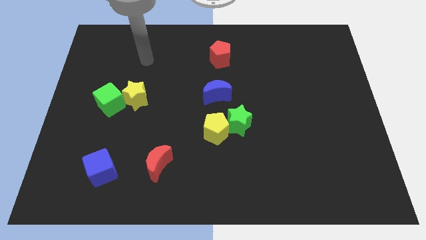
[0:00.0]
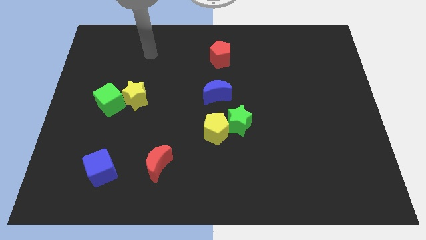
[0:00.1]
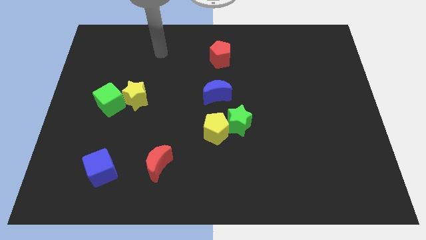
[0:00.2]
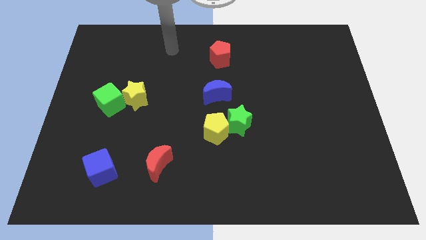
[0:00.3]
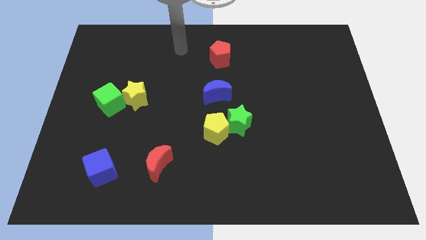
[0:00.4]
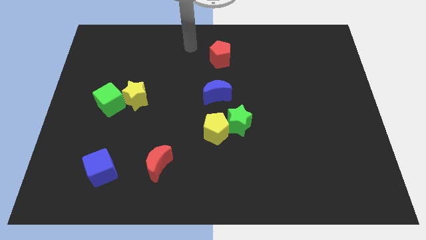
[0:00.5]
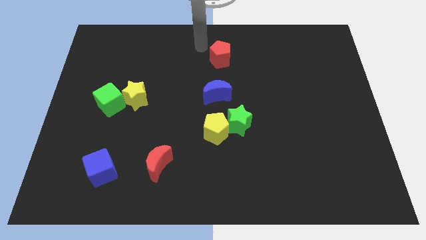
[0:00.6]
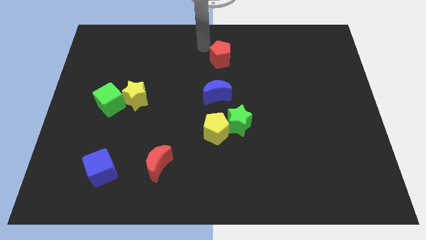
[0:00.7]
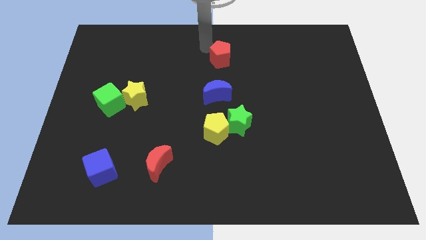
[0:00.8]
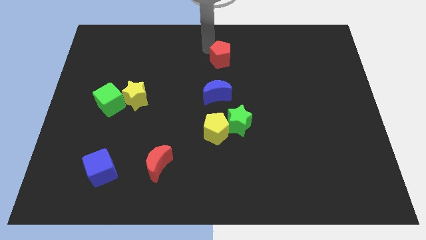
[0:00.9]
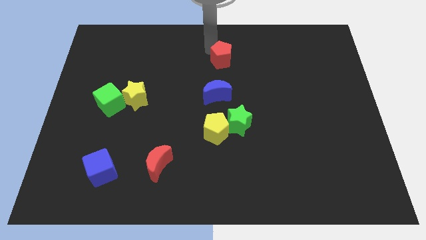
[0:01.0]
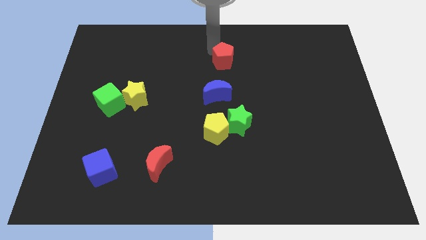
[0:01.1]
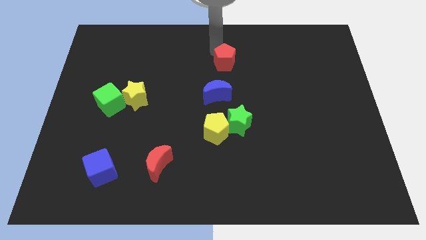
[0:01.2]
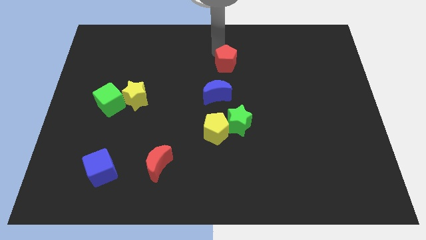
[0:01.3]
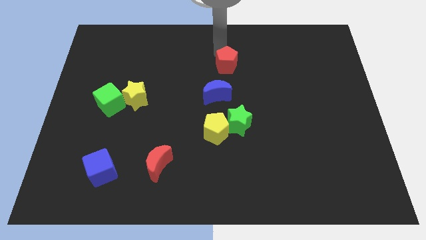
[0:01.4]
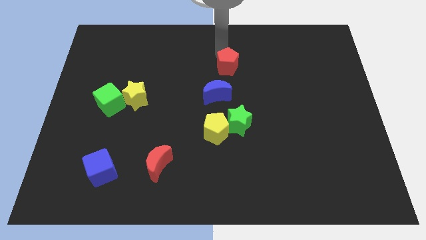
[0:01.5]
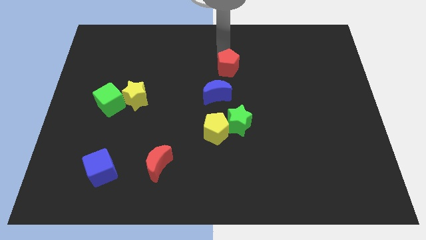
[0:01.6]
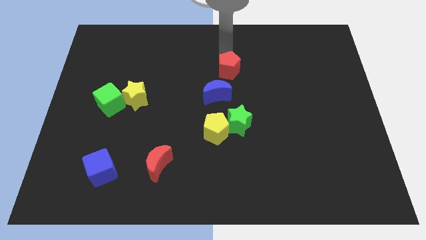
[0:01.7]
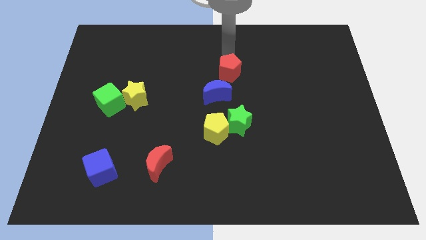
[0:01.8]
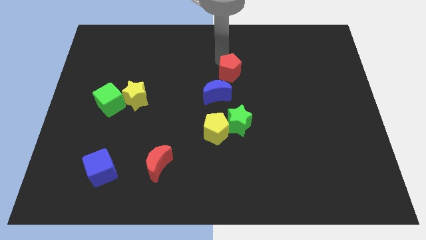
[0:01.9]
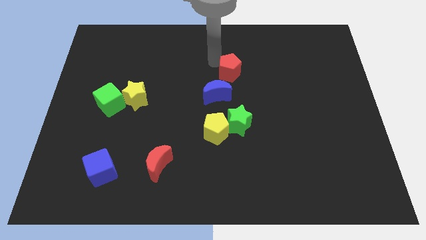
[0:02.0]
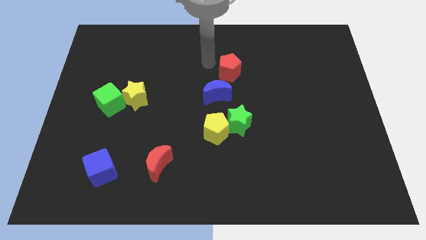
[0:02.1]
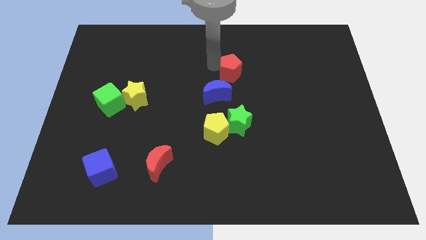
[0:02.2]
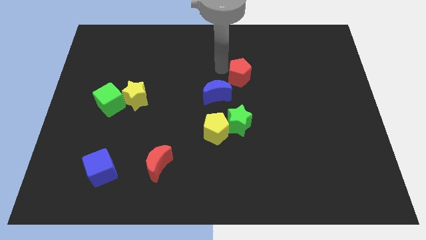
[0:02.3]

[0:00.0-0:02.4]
push the red pentagon somewhat down and then right

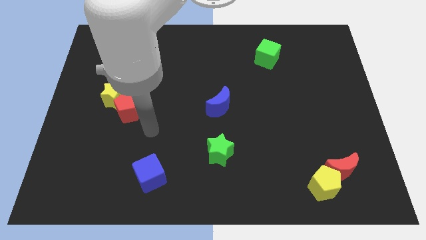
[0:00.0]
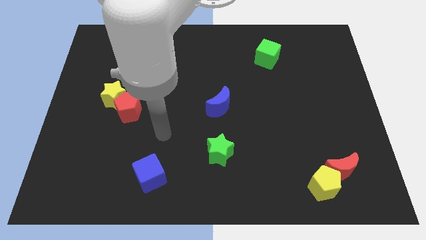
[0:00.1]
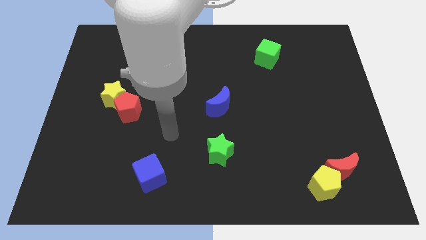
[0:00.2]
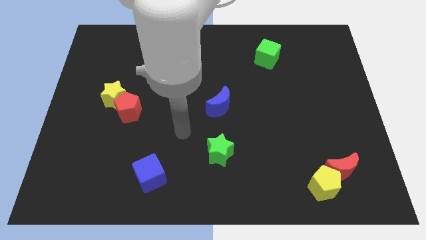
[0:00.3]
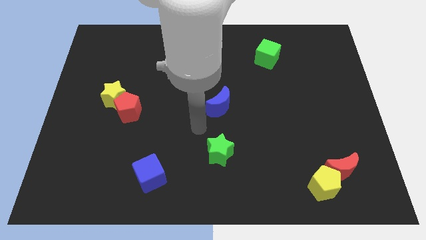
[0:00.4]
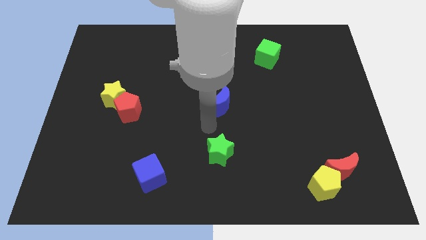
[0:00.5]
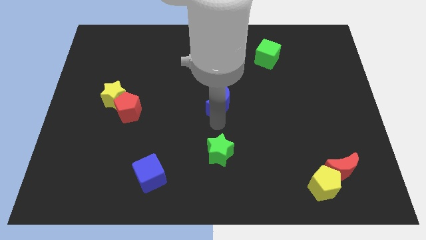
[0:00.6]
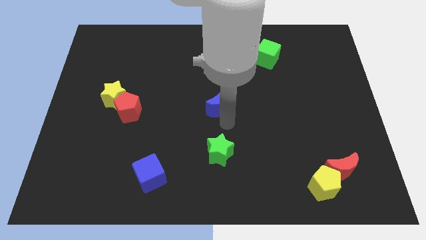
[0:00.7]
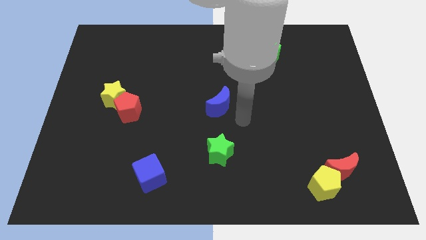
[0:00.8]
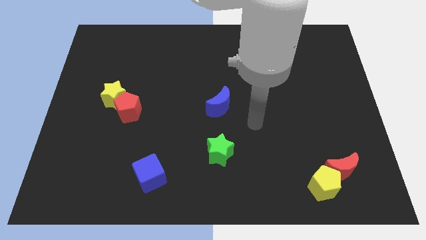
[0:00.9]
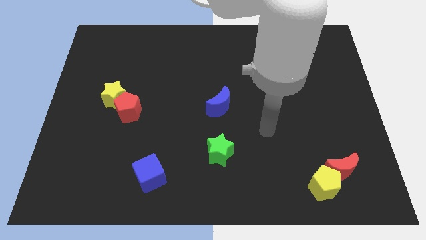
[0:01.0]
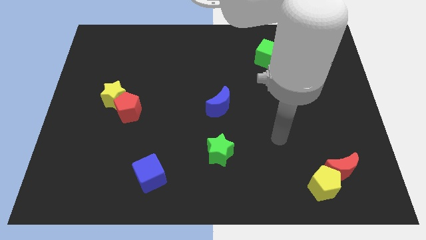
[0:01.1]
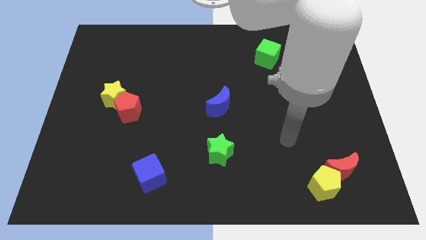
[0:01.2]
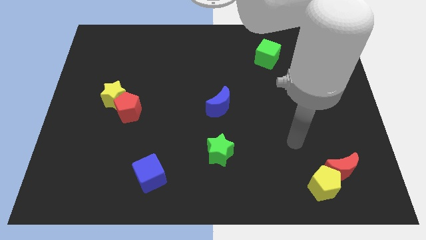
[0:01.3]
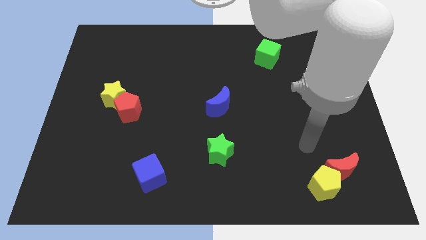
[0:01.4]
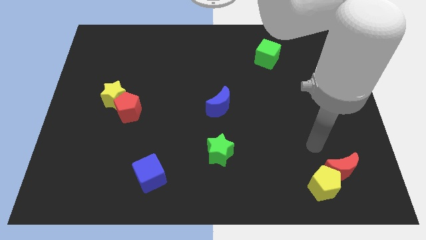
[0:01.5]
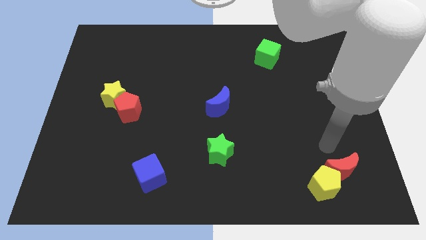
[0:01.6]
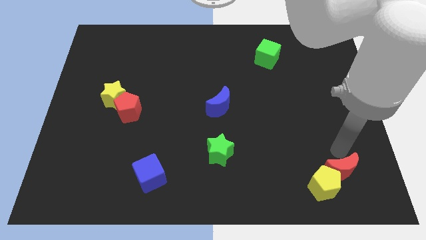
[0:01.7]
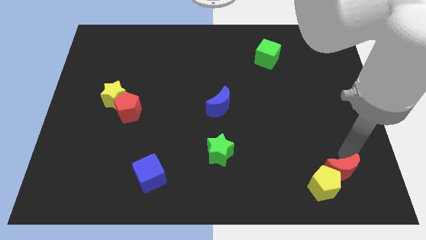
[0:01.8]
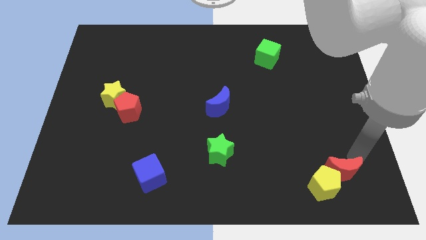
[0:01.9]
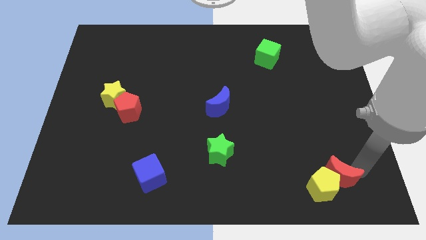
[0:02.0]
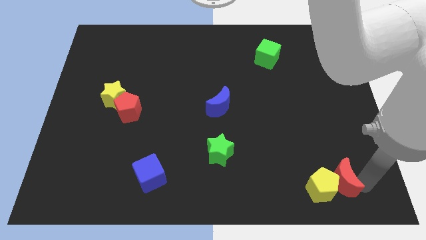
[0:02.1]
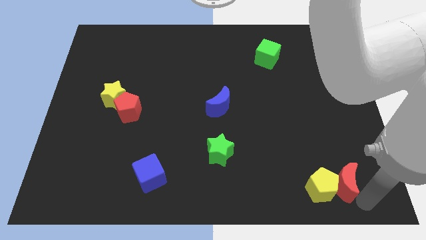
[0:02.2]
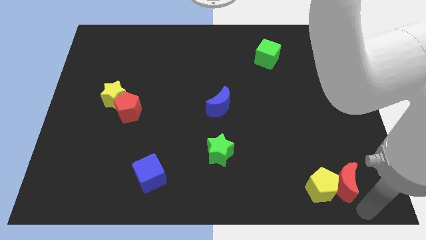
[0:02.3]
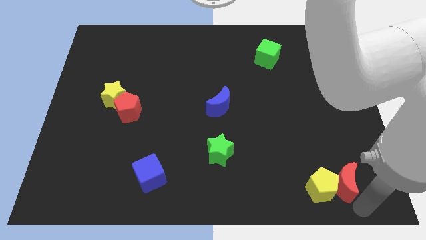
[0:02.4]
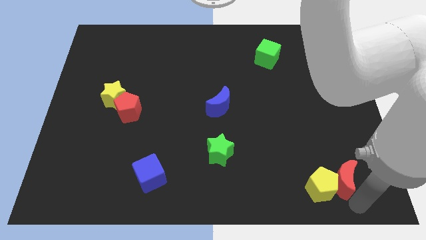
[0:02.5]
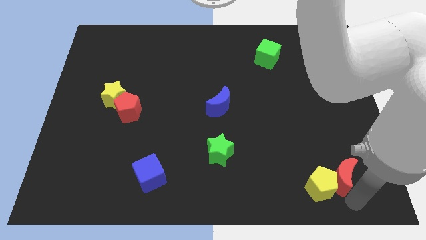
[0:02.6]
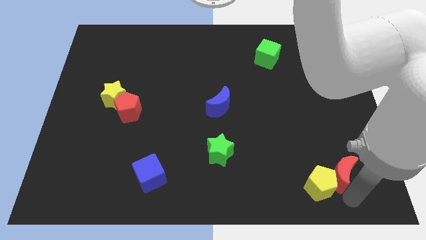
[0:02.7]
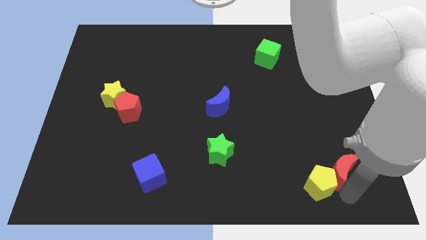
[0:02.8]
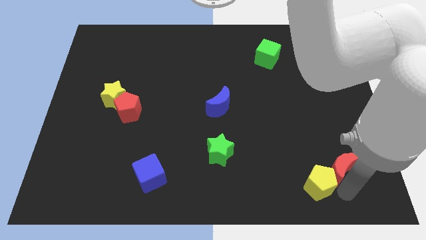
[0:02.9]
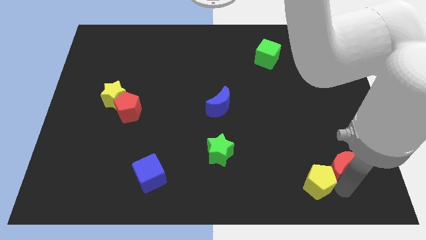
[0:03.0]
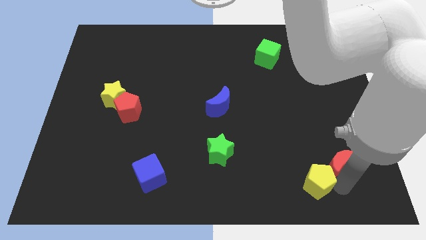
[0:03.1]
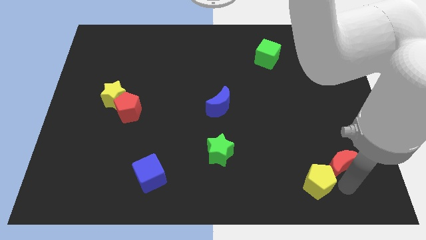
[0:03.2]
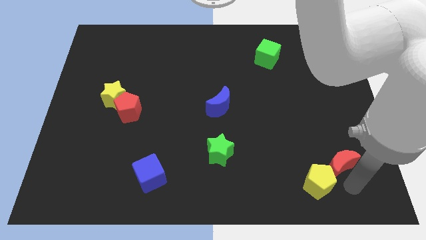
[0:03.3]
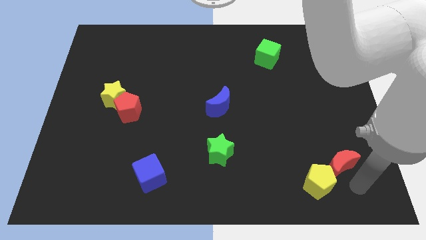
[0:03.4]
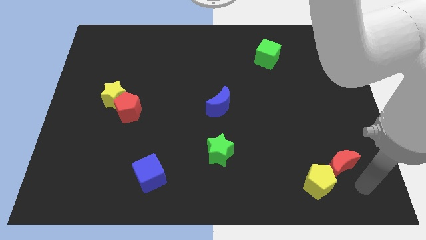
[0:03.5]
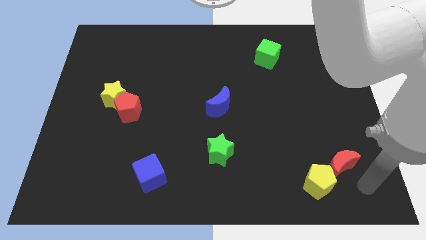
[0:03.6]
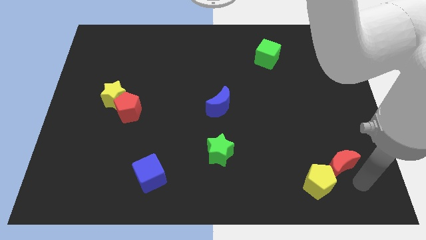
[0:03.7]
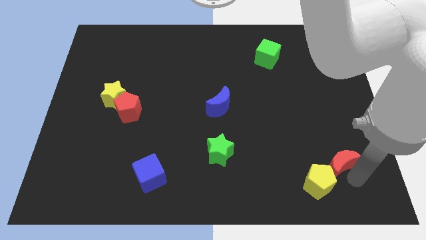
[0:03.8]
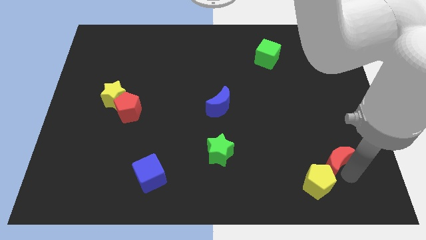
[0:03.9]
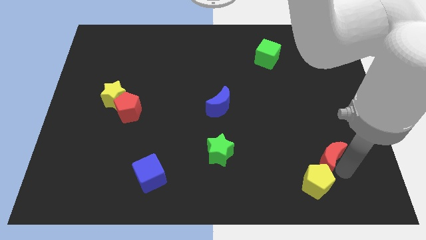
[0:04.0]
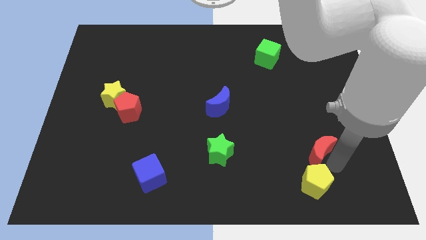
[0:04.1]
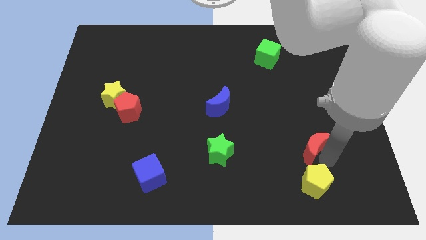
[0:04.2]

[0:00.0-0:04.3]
slightly move the red moon up and then left

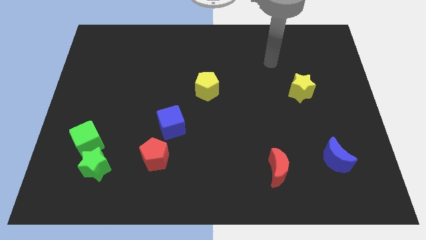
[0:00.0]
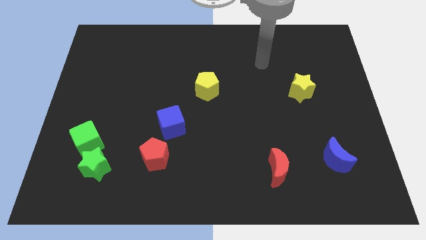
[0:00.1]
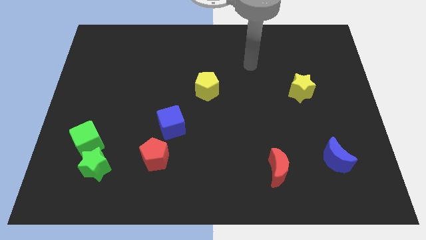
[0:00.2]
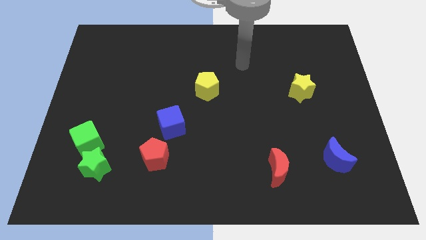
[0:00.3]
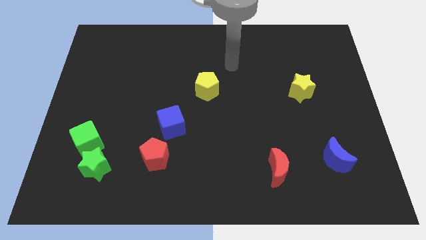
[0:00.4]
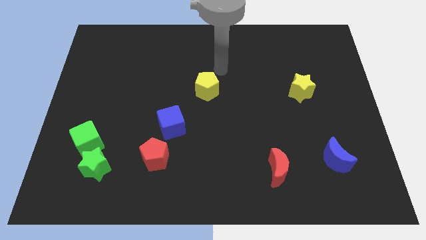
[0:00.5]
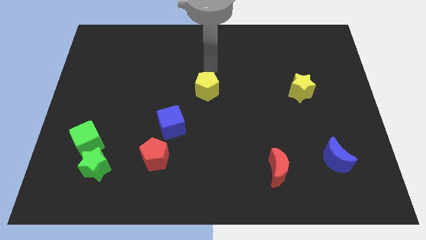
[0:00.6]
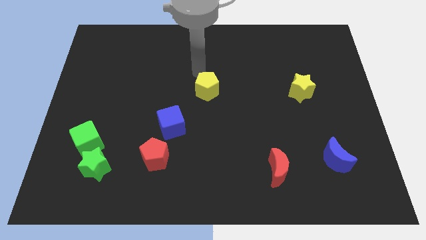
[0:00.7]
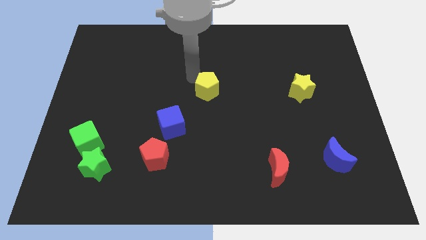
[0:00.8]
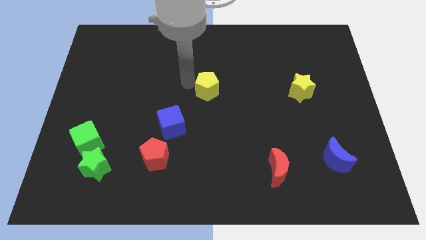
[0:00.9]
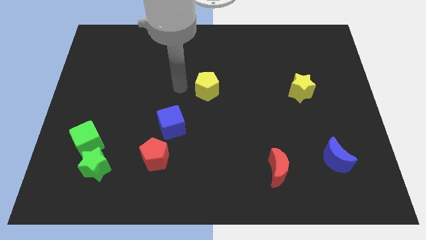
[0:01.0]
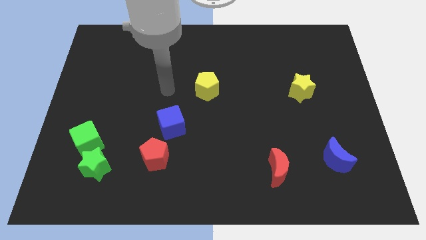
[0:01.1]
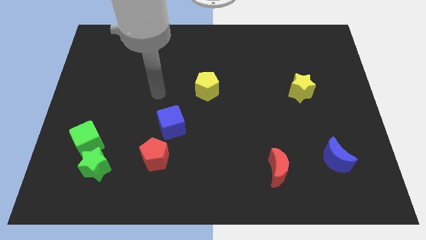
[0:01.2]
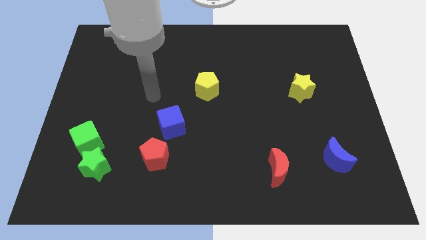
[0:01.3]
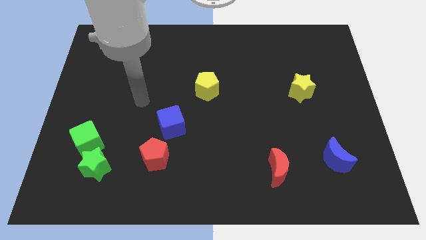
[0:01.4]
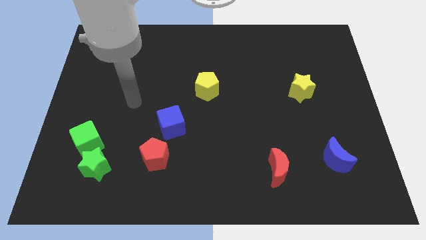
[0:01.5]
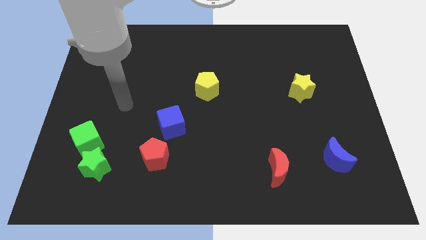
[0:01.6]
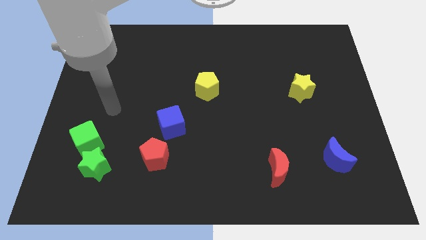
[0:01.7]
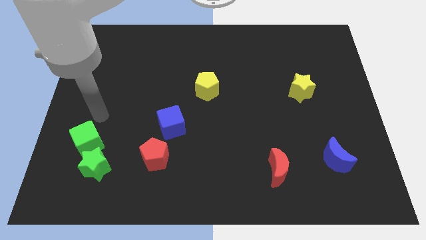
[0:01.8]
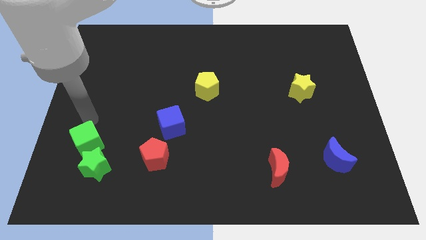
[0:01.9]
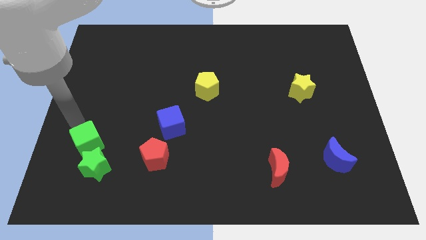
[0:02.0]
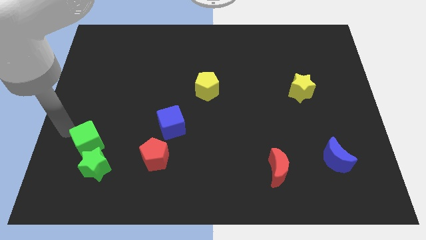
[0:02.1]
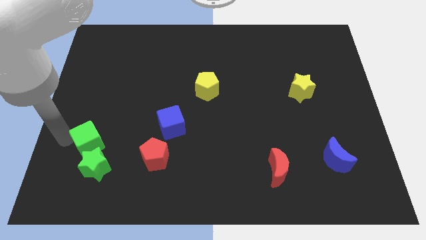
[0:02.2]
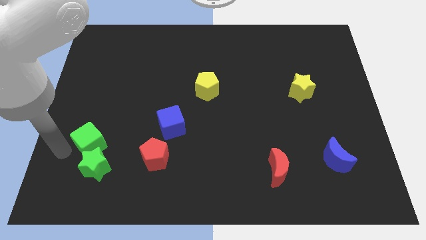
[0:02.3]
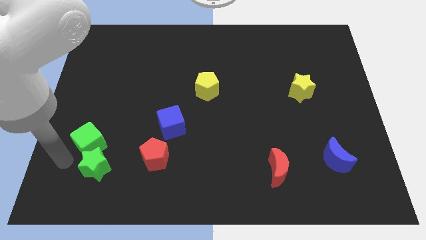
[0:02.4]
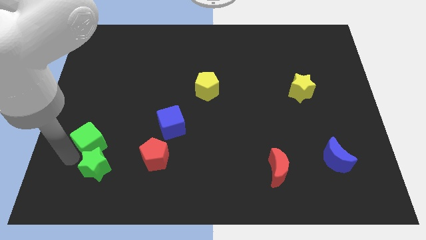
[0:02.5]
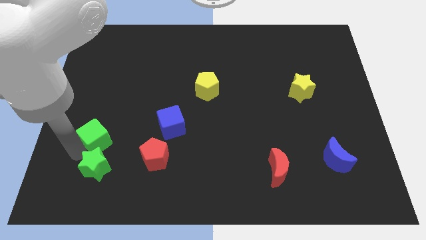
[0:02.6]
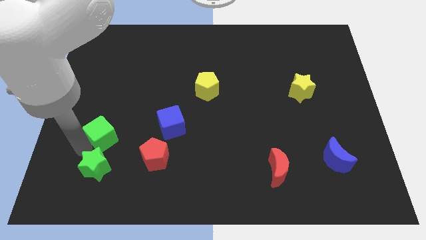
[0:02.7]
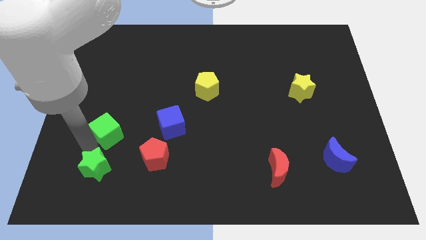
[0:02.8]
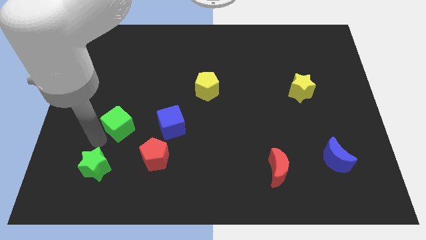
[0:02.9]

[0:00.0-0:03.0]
move the green cube diagonally upwards and right a little
